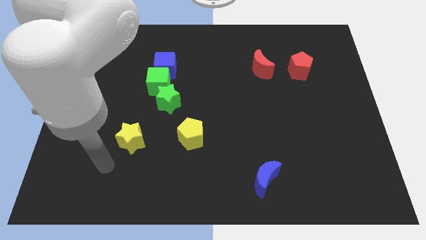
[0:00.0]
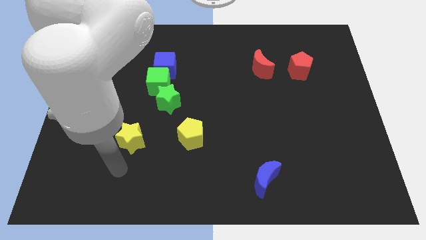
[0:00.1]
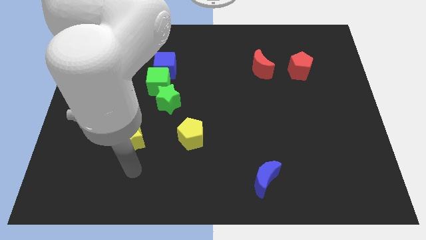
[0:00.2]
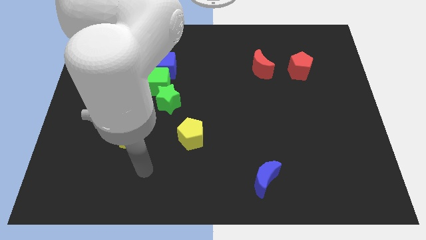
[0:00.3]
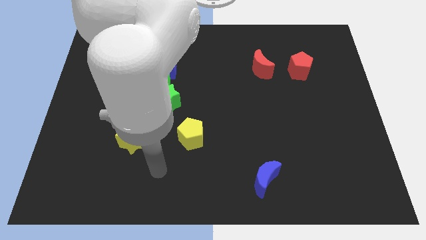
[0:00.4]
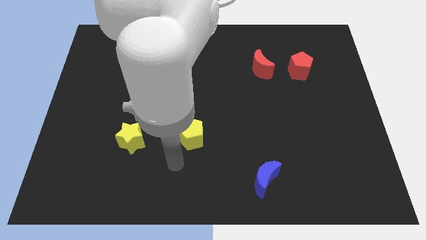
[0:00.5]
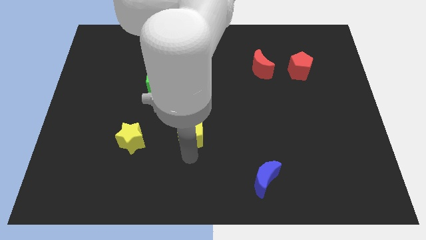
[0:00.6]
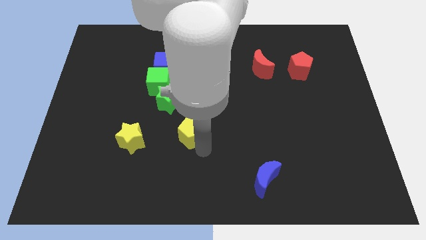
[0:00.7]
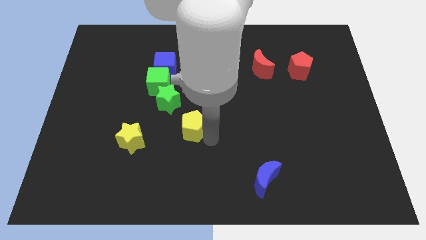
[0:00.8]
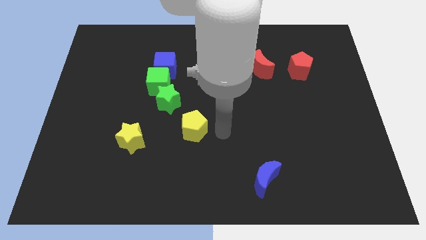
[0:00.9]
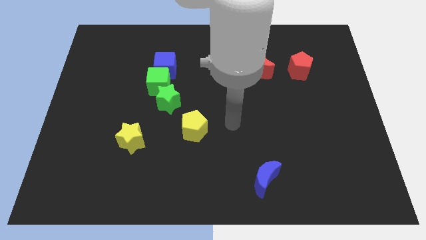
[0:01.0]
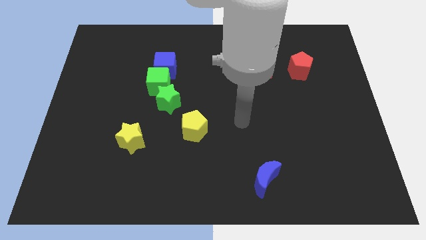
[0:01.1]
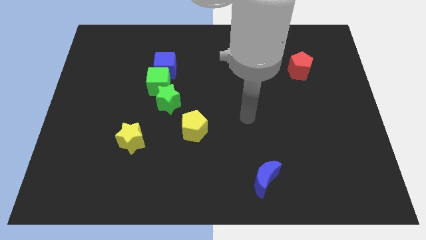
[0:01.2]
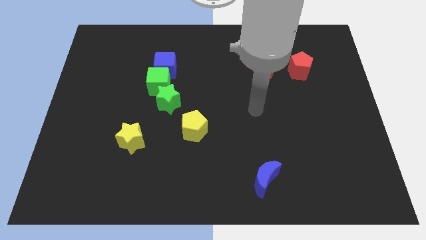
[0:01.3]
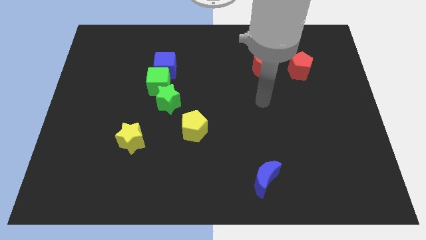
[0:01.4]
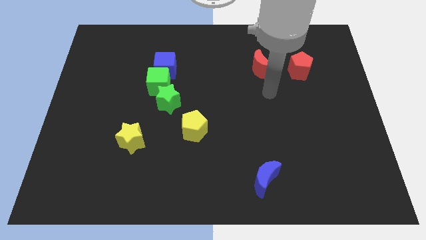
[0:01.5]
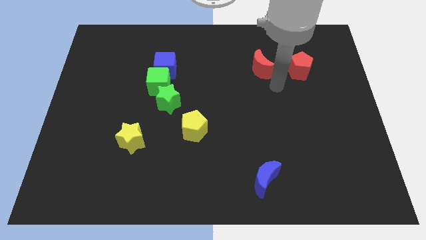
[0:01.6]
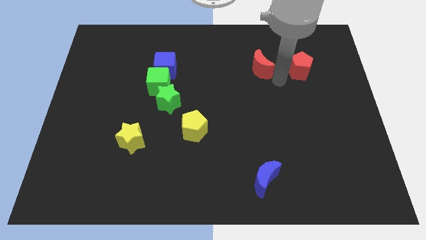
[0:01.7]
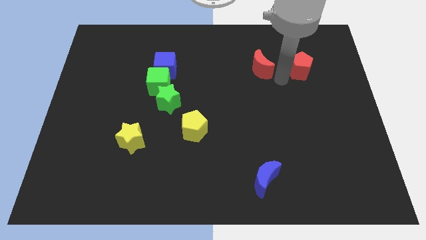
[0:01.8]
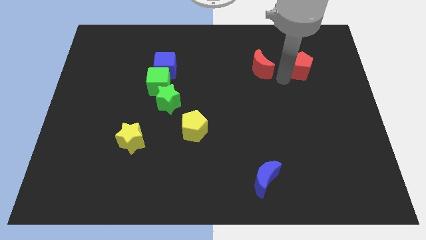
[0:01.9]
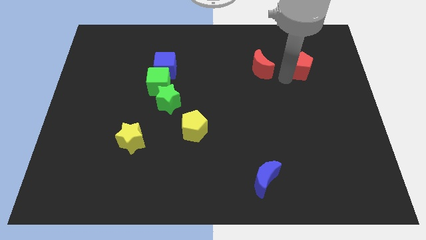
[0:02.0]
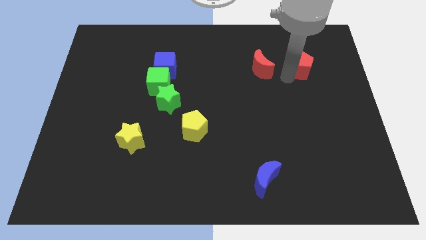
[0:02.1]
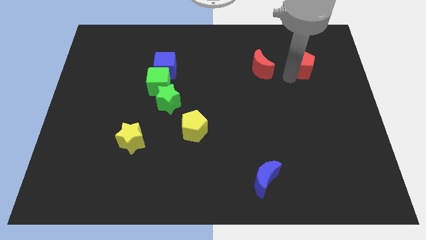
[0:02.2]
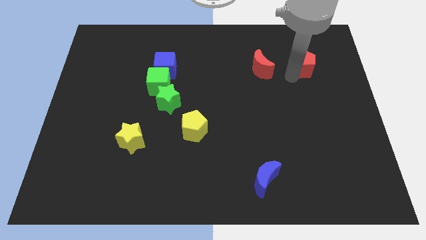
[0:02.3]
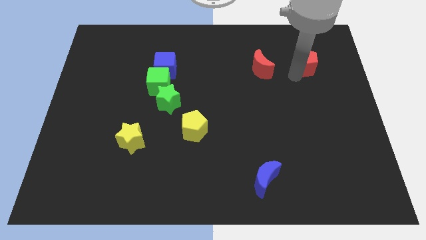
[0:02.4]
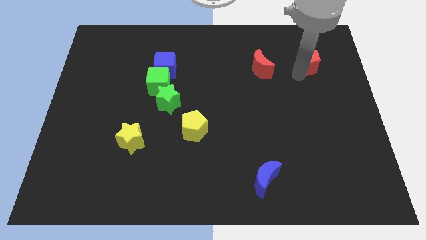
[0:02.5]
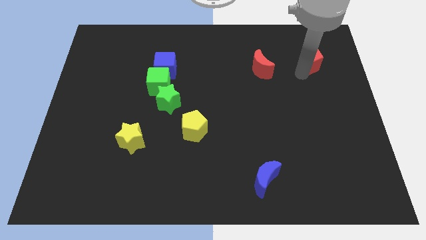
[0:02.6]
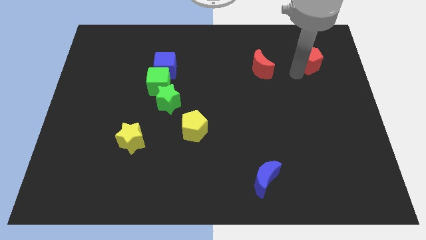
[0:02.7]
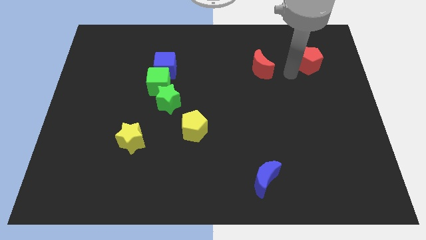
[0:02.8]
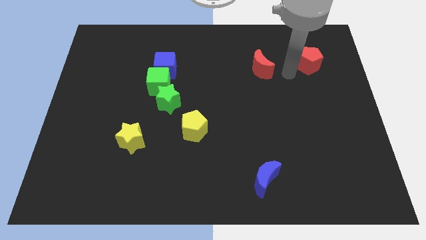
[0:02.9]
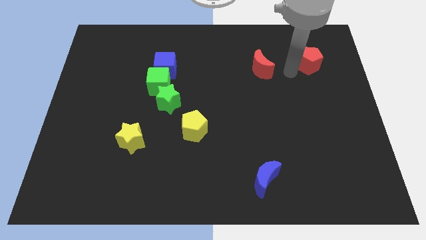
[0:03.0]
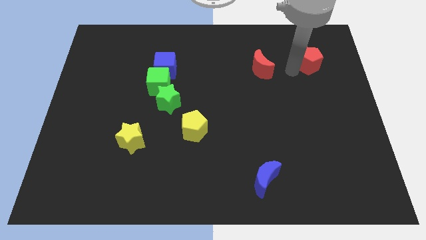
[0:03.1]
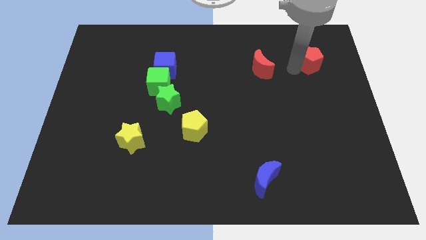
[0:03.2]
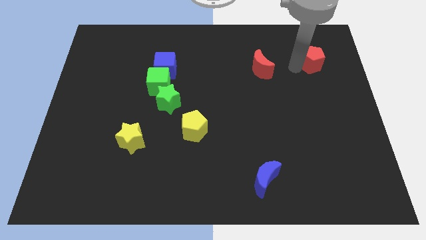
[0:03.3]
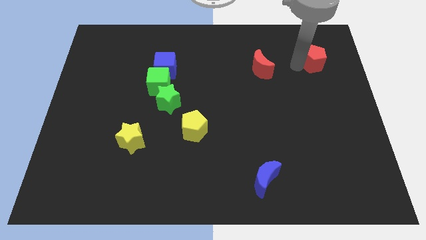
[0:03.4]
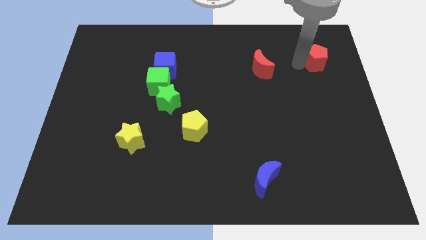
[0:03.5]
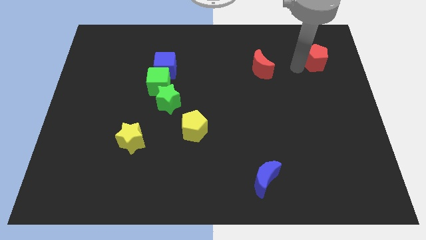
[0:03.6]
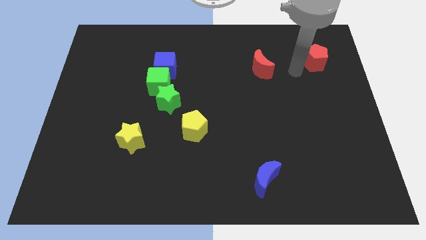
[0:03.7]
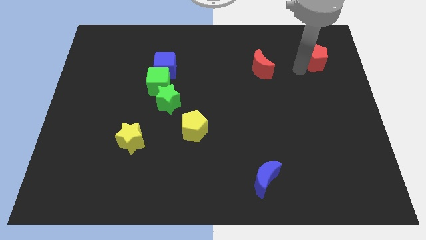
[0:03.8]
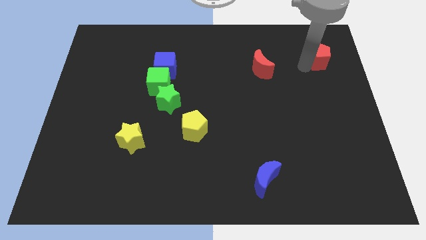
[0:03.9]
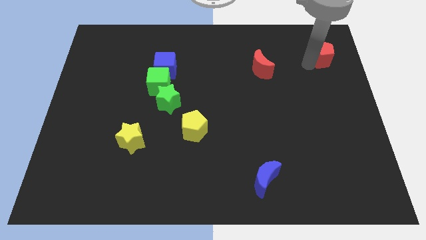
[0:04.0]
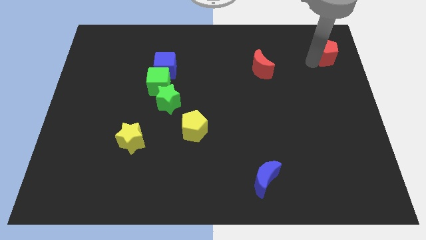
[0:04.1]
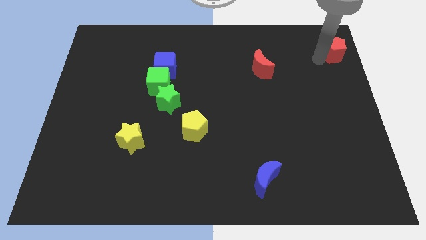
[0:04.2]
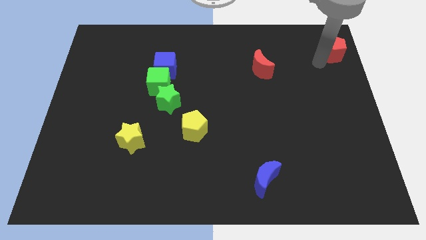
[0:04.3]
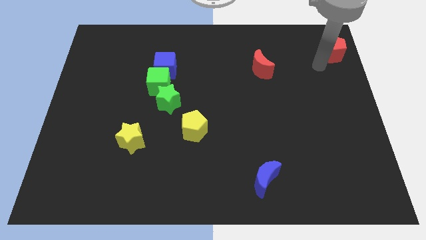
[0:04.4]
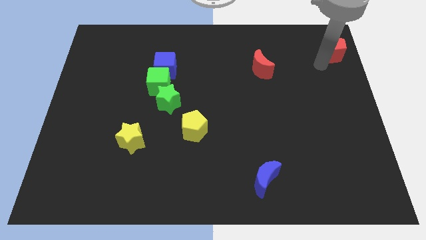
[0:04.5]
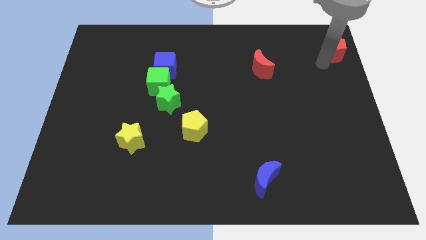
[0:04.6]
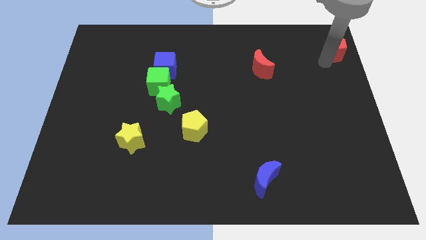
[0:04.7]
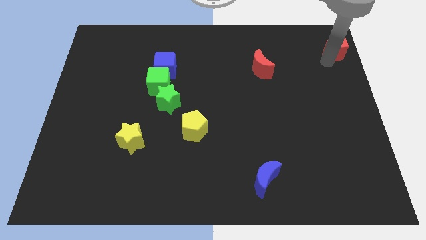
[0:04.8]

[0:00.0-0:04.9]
push the red pentagon to the top right of the board

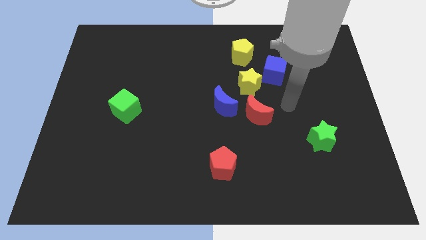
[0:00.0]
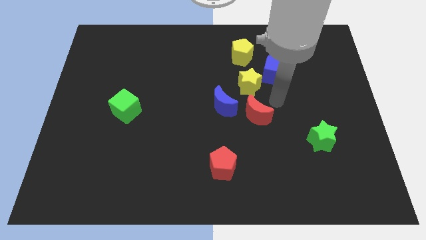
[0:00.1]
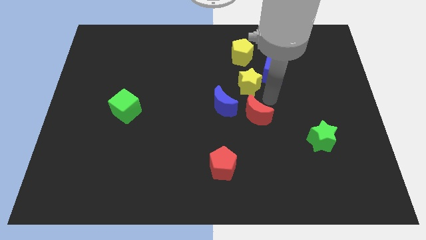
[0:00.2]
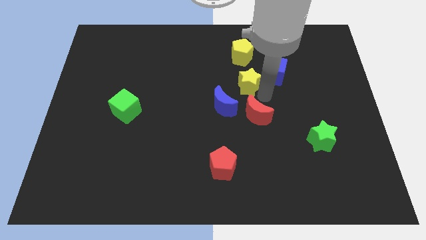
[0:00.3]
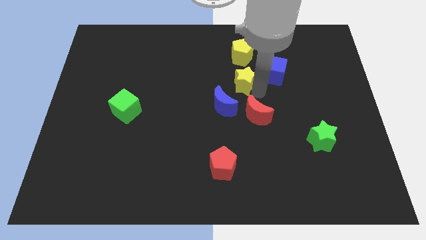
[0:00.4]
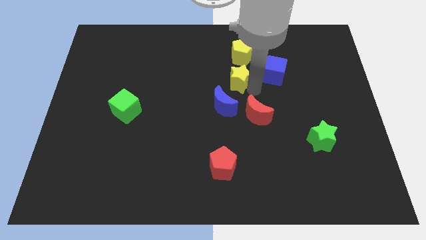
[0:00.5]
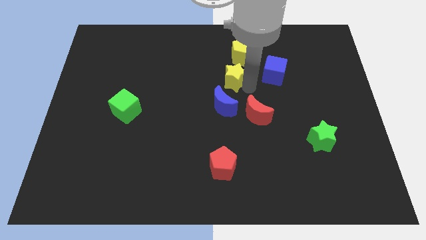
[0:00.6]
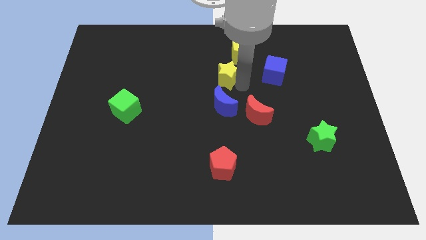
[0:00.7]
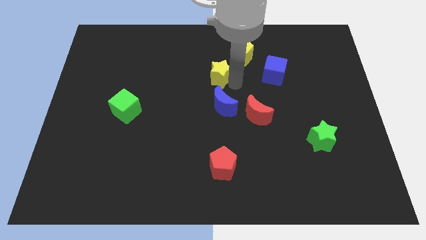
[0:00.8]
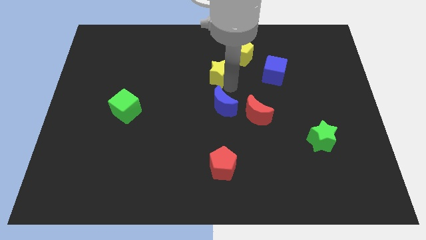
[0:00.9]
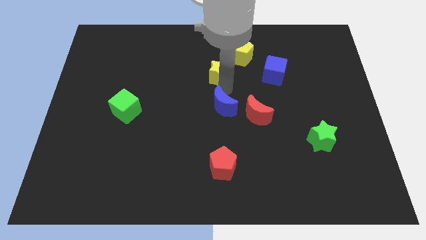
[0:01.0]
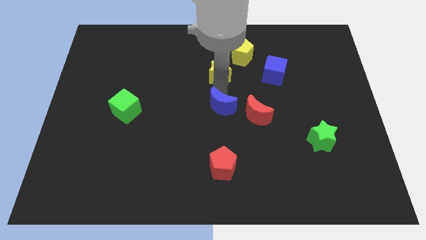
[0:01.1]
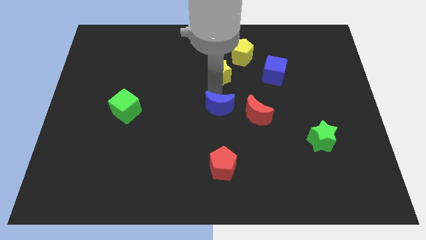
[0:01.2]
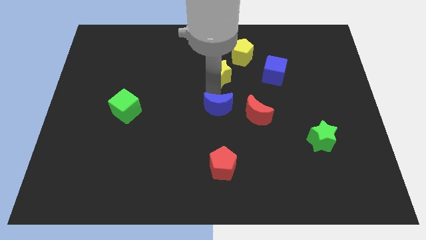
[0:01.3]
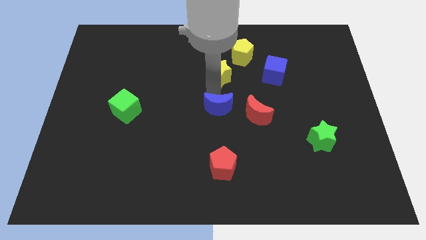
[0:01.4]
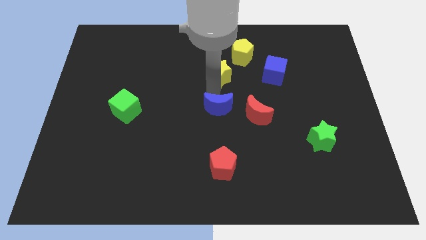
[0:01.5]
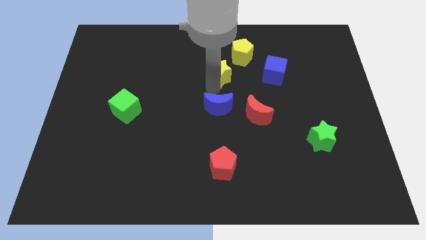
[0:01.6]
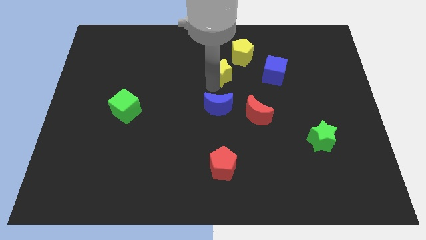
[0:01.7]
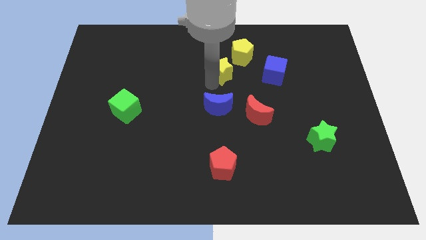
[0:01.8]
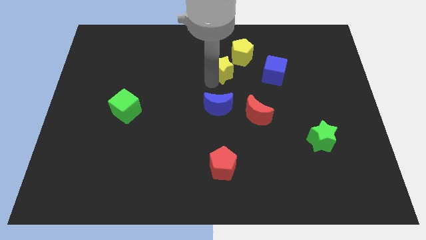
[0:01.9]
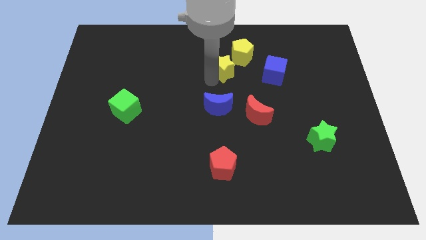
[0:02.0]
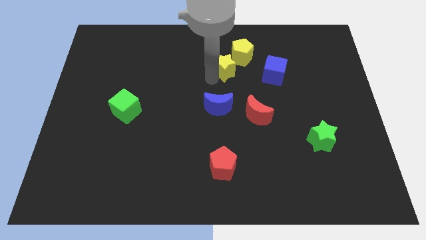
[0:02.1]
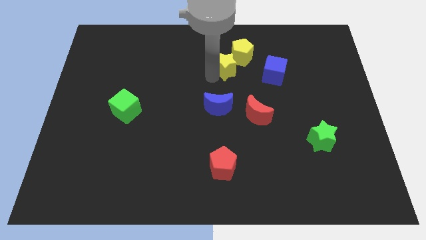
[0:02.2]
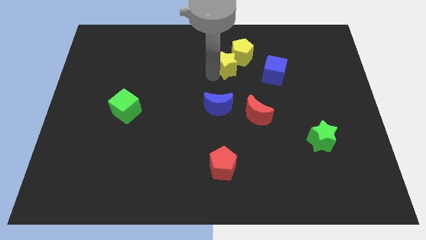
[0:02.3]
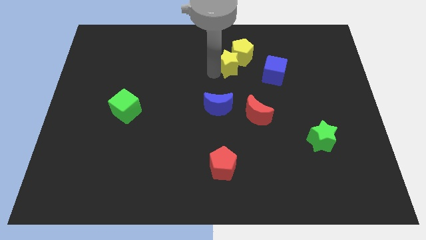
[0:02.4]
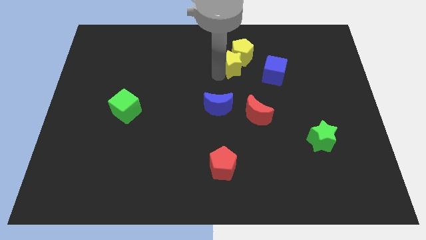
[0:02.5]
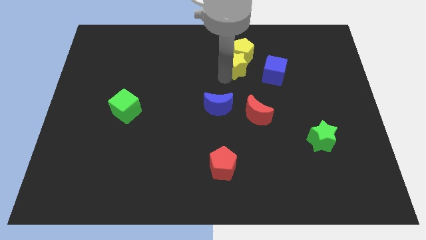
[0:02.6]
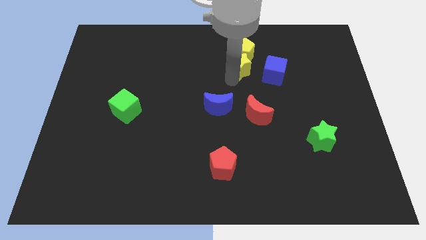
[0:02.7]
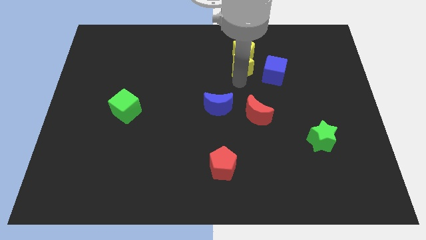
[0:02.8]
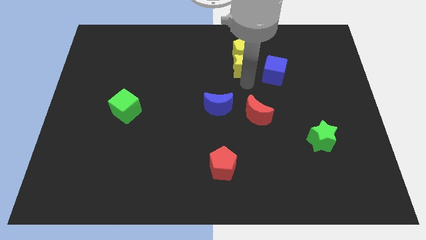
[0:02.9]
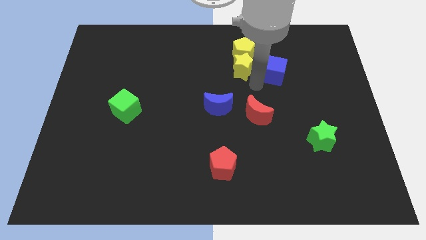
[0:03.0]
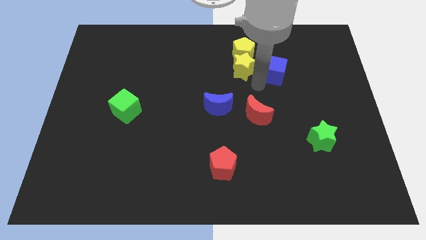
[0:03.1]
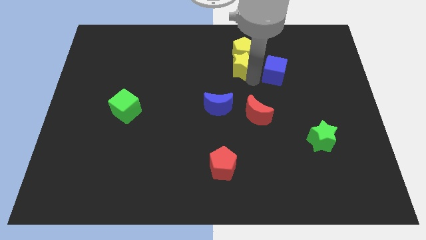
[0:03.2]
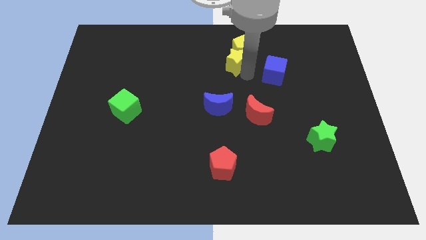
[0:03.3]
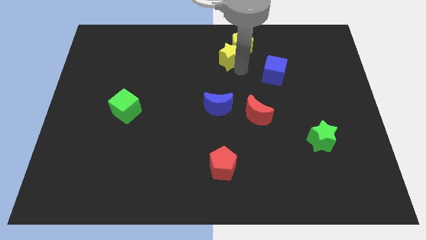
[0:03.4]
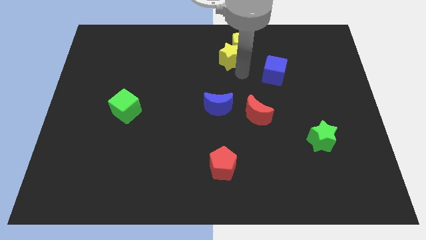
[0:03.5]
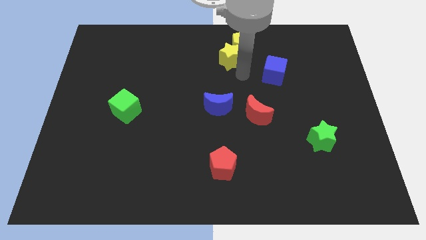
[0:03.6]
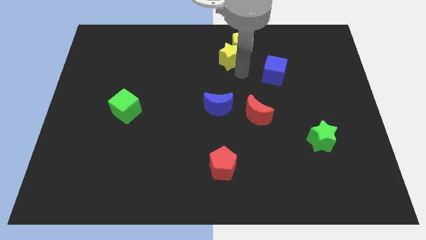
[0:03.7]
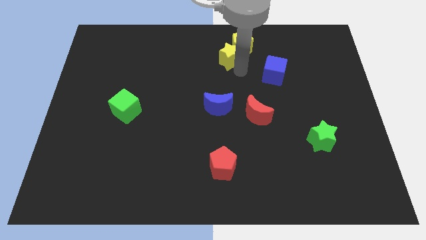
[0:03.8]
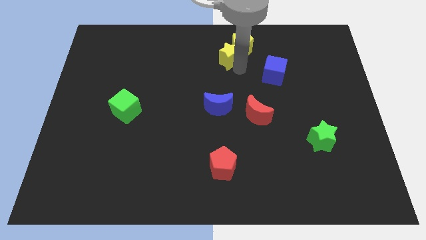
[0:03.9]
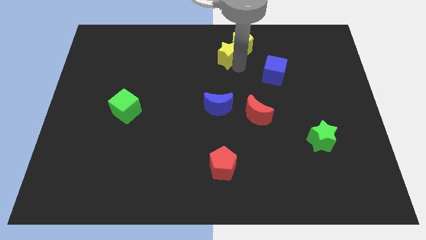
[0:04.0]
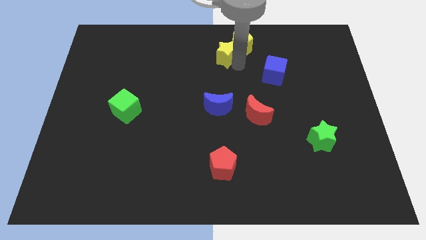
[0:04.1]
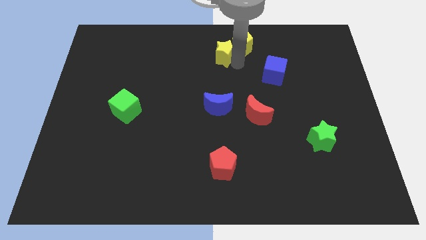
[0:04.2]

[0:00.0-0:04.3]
slide the yellow star to the towards your base
